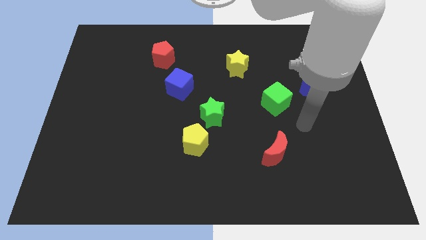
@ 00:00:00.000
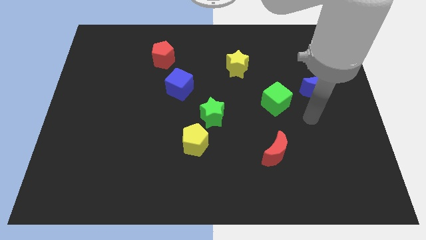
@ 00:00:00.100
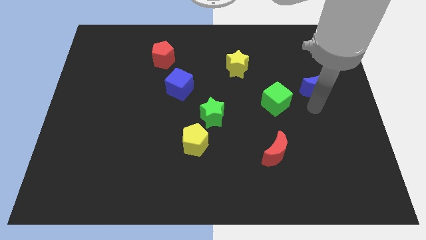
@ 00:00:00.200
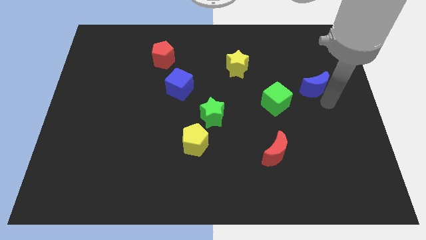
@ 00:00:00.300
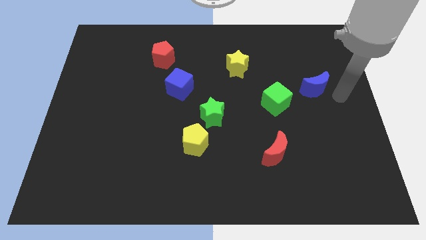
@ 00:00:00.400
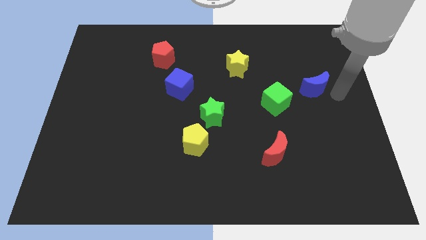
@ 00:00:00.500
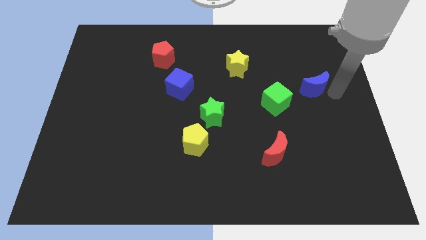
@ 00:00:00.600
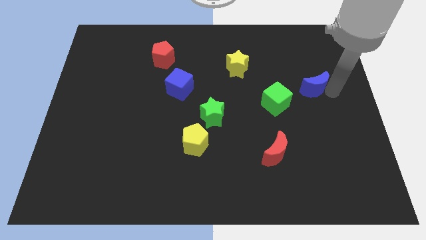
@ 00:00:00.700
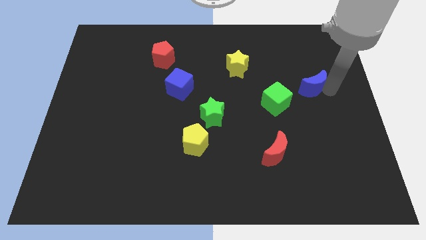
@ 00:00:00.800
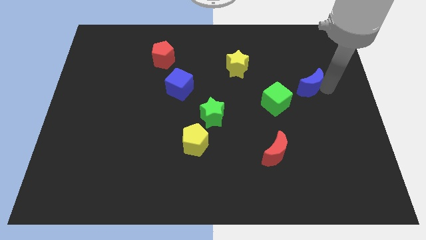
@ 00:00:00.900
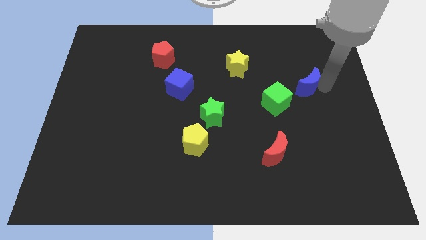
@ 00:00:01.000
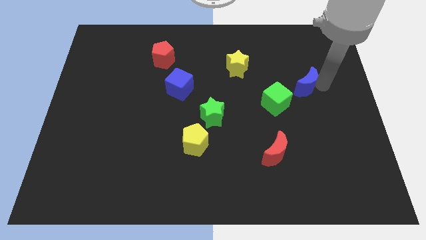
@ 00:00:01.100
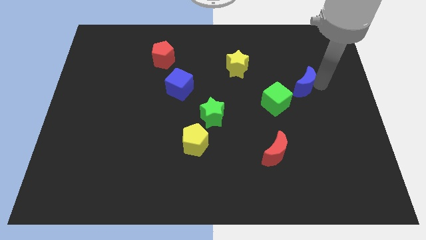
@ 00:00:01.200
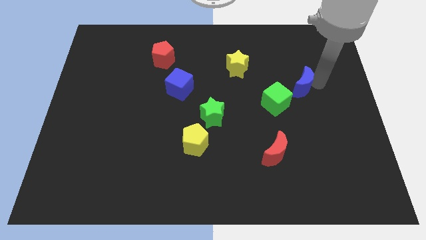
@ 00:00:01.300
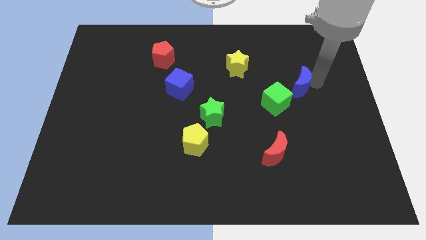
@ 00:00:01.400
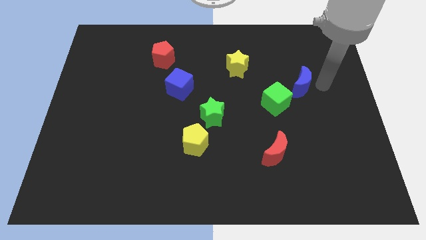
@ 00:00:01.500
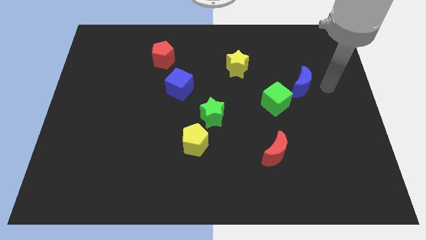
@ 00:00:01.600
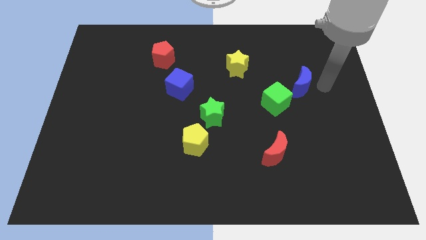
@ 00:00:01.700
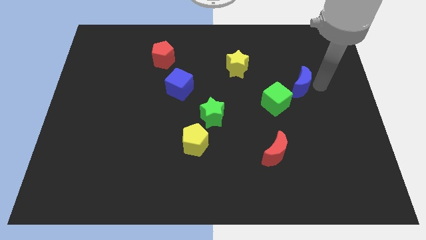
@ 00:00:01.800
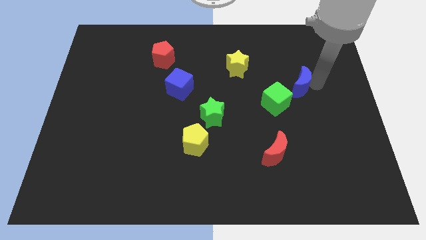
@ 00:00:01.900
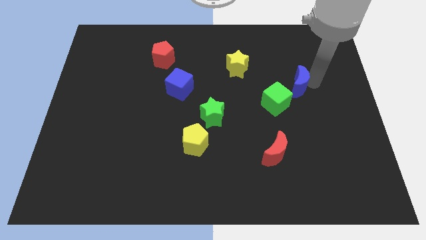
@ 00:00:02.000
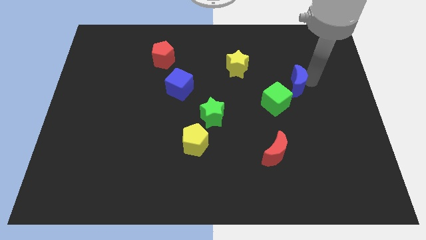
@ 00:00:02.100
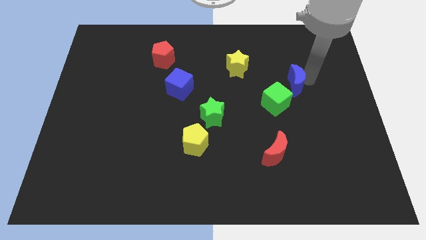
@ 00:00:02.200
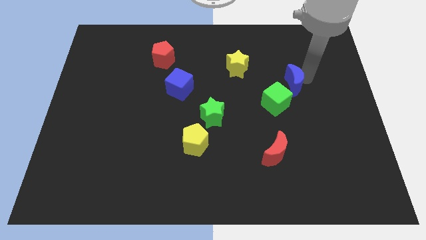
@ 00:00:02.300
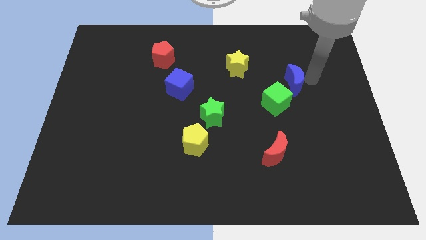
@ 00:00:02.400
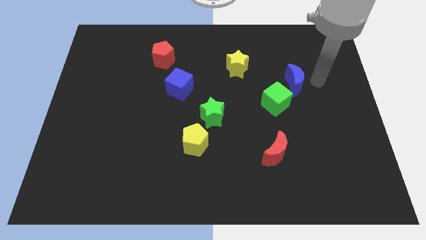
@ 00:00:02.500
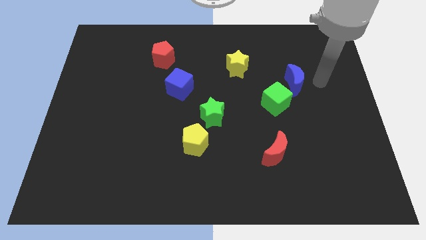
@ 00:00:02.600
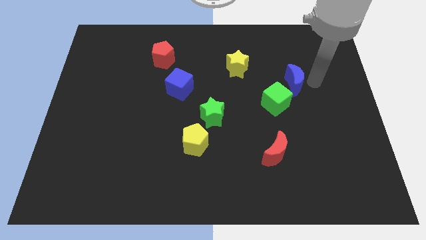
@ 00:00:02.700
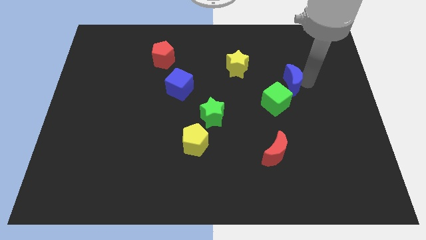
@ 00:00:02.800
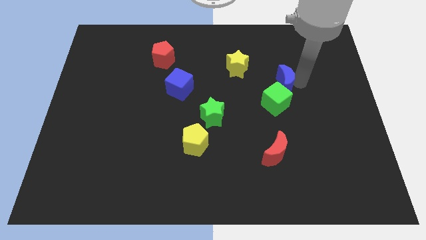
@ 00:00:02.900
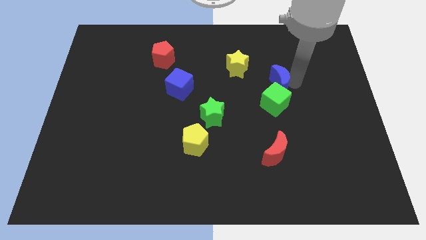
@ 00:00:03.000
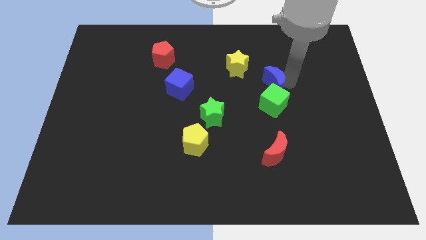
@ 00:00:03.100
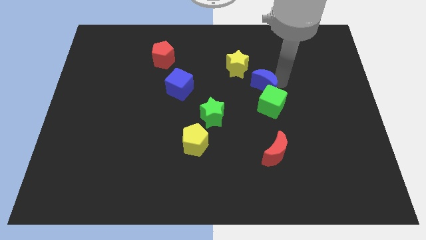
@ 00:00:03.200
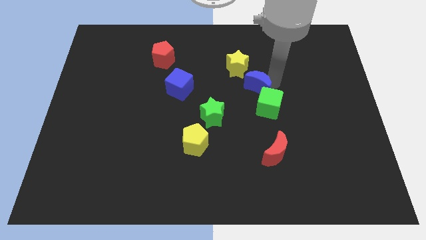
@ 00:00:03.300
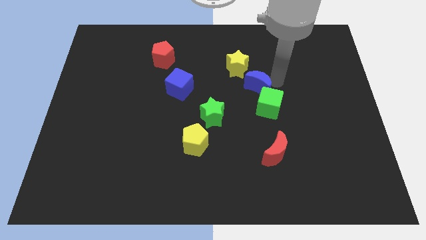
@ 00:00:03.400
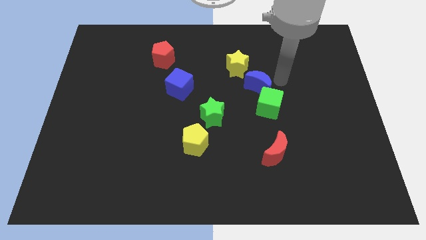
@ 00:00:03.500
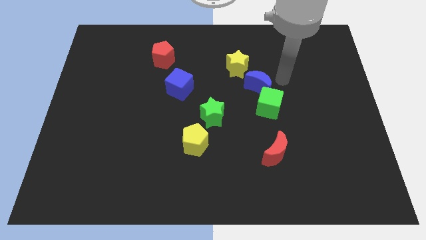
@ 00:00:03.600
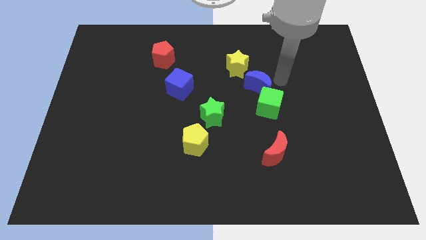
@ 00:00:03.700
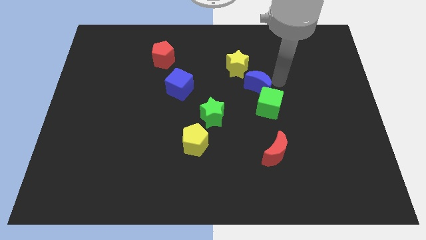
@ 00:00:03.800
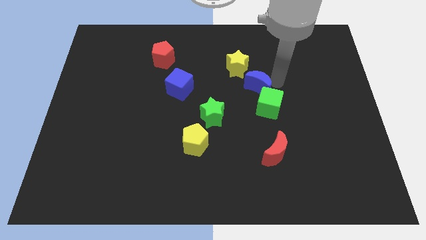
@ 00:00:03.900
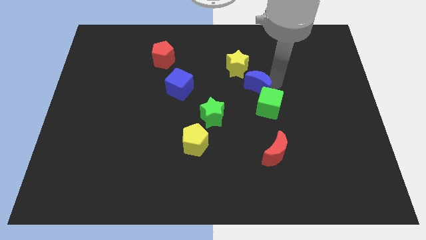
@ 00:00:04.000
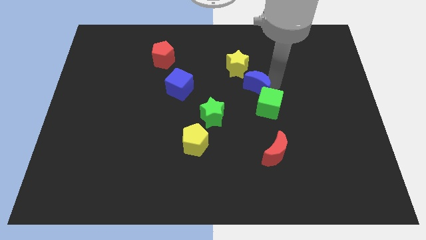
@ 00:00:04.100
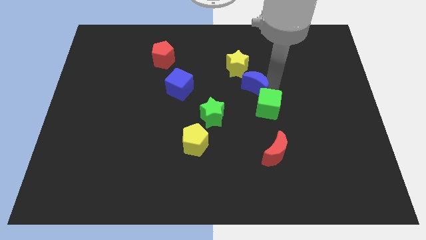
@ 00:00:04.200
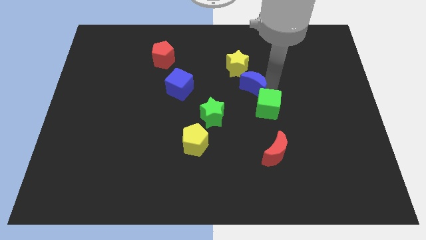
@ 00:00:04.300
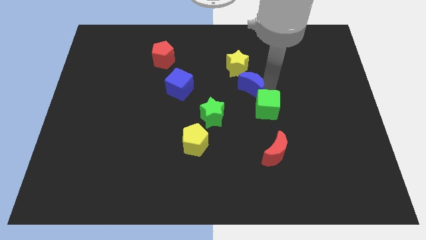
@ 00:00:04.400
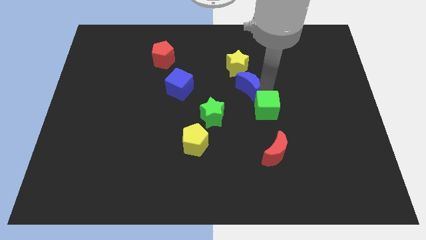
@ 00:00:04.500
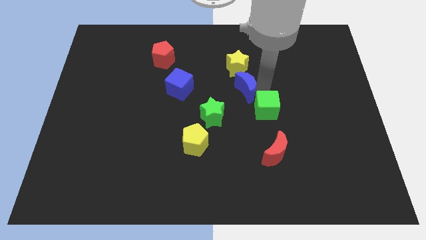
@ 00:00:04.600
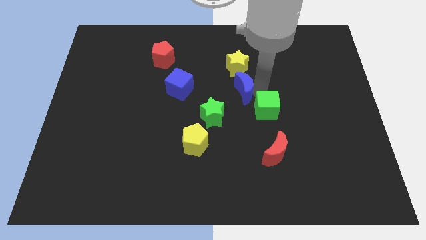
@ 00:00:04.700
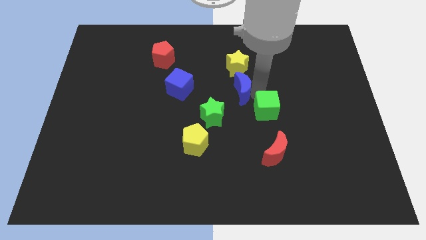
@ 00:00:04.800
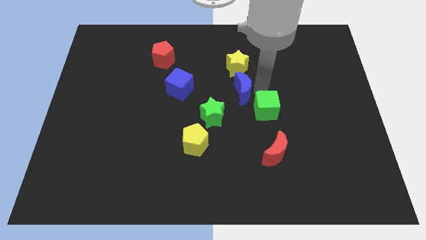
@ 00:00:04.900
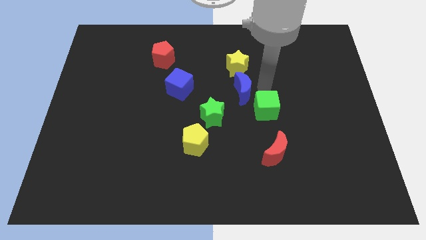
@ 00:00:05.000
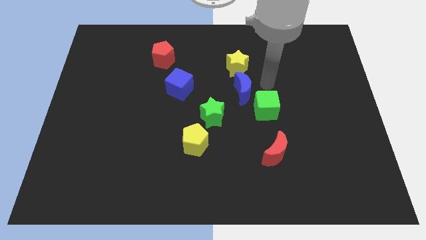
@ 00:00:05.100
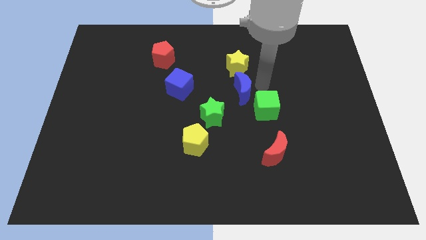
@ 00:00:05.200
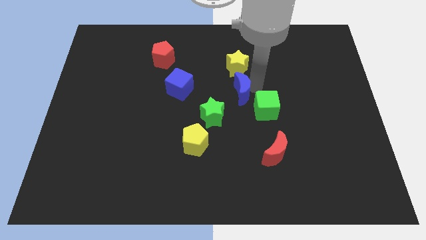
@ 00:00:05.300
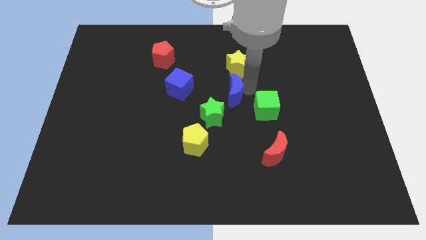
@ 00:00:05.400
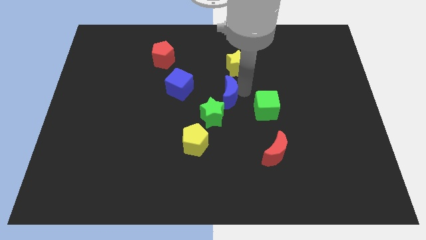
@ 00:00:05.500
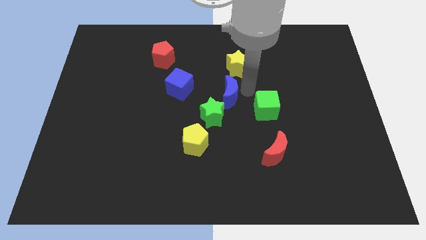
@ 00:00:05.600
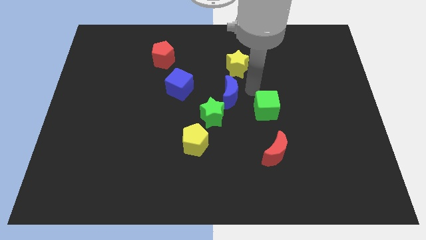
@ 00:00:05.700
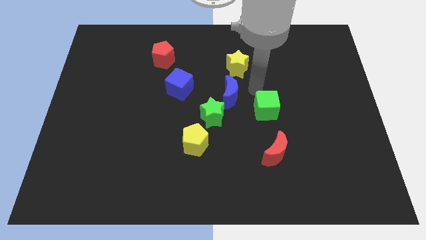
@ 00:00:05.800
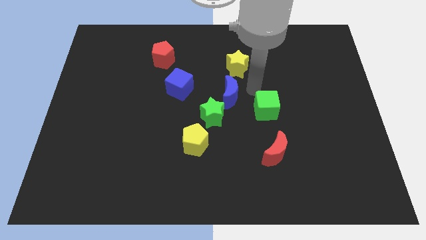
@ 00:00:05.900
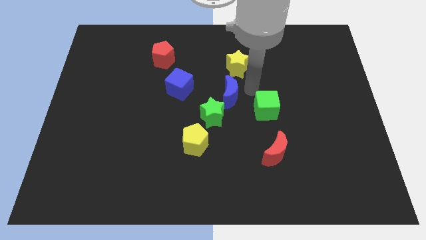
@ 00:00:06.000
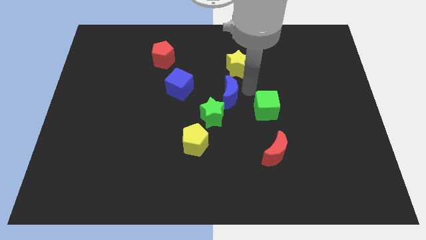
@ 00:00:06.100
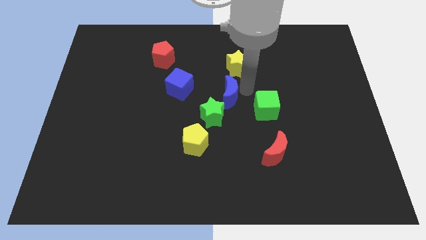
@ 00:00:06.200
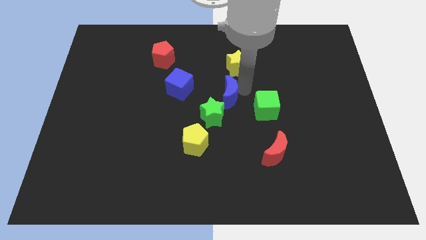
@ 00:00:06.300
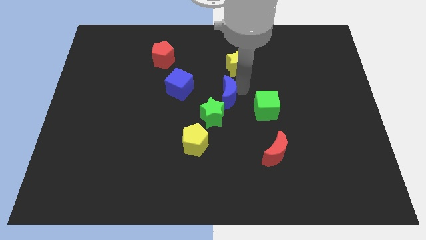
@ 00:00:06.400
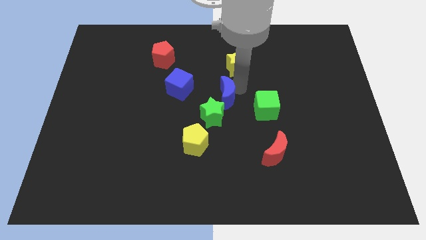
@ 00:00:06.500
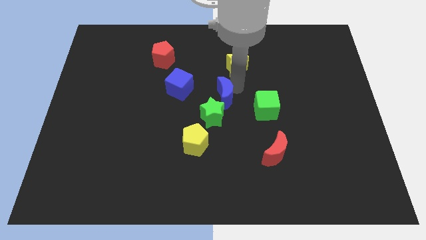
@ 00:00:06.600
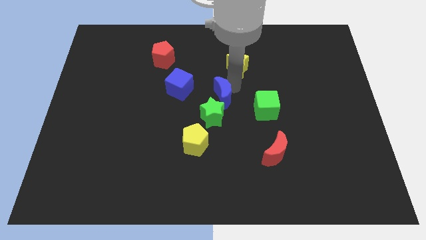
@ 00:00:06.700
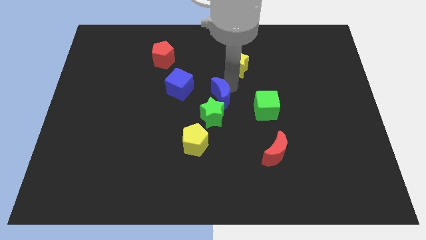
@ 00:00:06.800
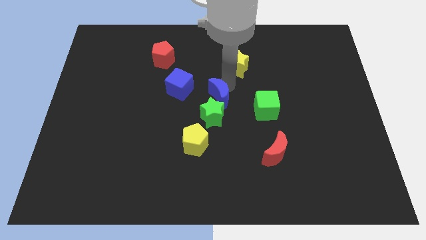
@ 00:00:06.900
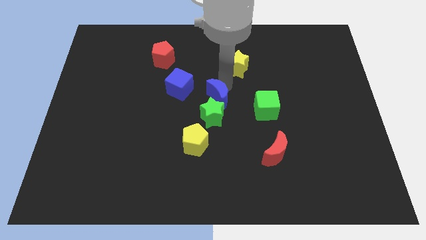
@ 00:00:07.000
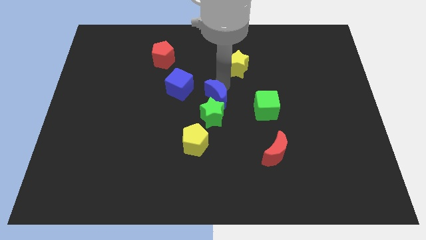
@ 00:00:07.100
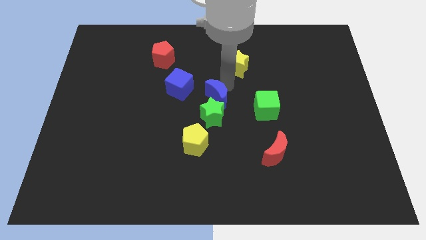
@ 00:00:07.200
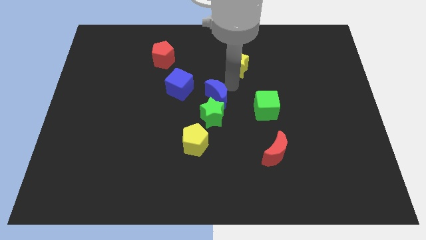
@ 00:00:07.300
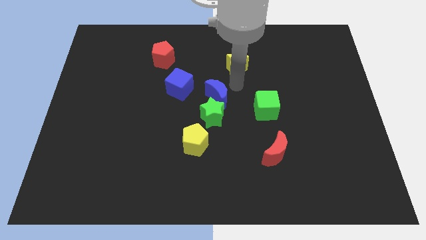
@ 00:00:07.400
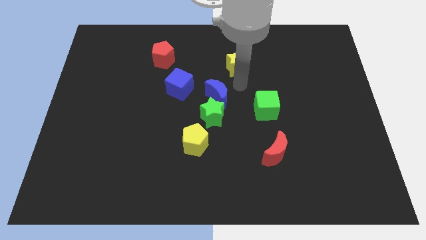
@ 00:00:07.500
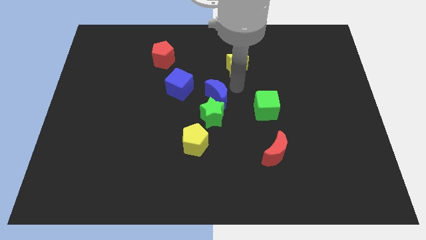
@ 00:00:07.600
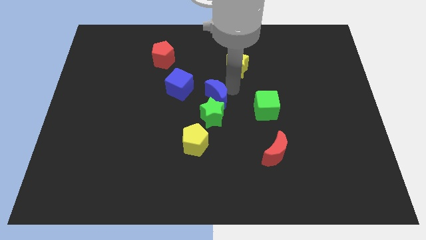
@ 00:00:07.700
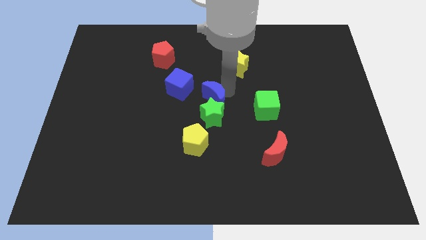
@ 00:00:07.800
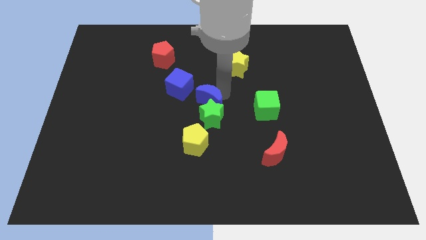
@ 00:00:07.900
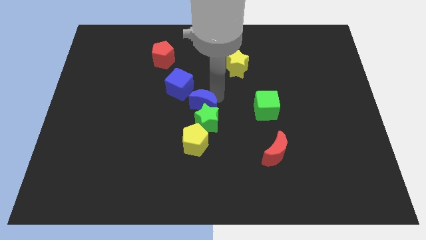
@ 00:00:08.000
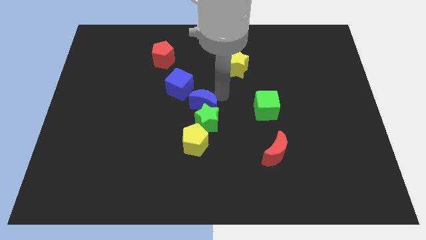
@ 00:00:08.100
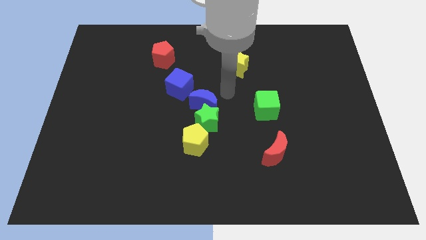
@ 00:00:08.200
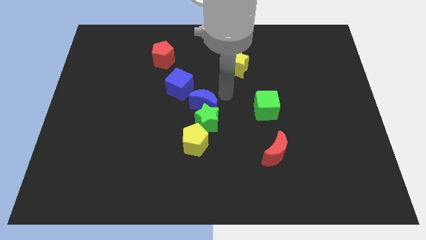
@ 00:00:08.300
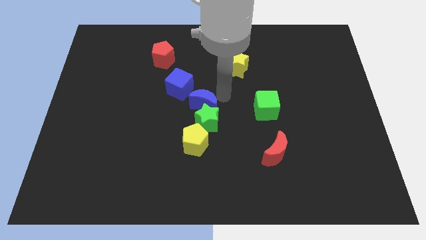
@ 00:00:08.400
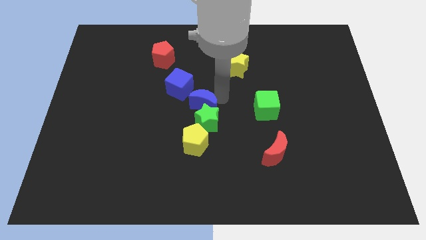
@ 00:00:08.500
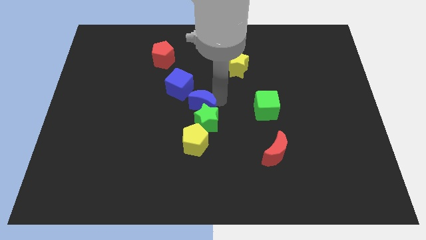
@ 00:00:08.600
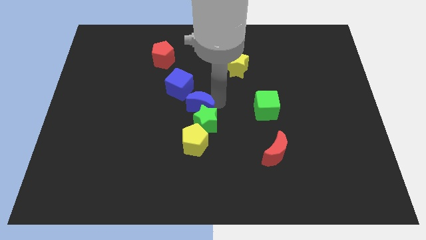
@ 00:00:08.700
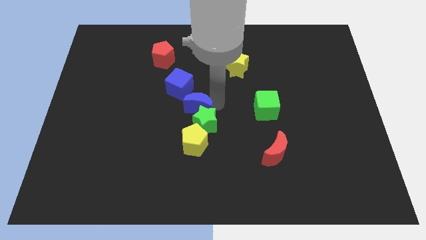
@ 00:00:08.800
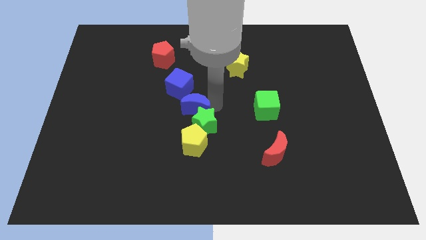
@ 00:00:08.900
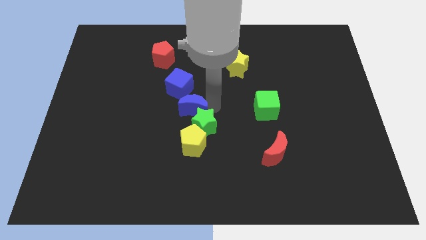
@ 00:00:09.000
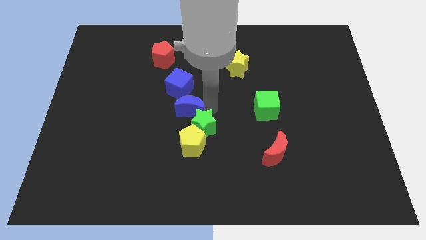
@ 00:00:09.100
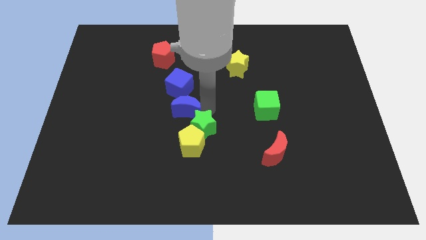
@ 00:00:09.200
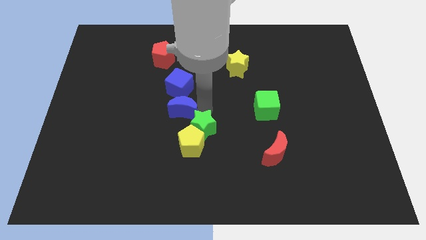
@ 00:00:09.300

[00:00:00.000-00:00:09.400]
move the blue moon to the top left of the yellow pentagon
